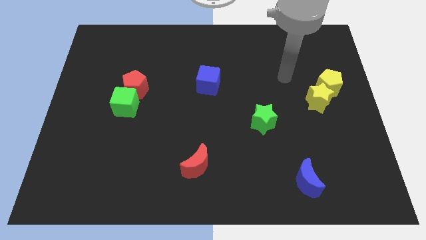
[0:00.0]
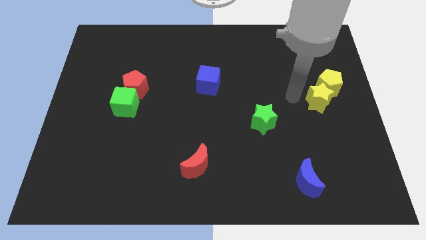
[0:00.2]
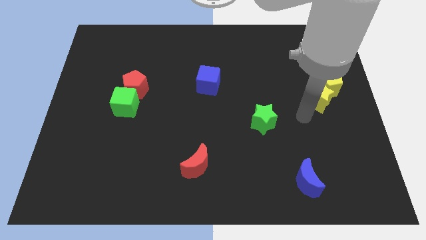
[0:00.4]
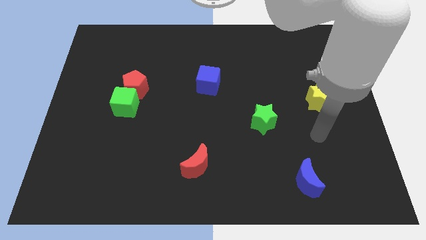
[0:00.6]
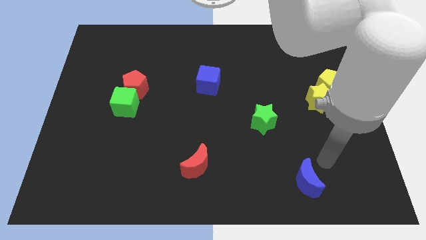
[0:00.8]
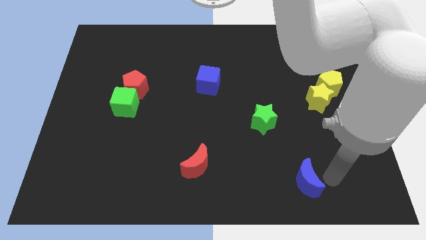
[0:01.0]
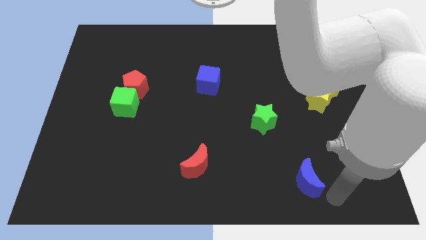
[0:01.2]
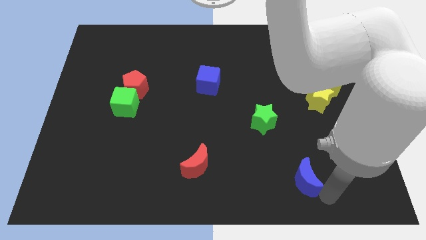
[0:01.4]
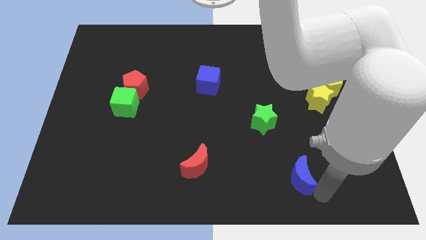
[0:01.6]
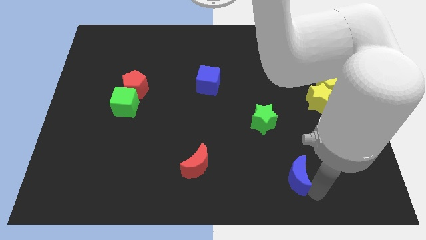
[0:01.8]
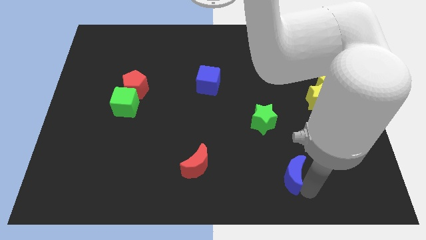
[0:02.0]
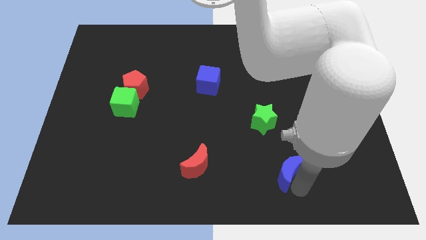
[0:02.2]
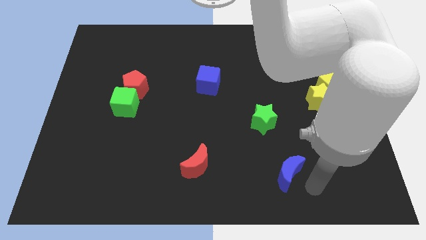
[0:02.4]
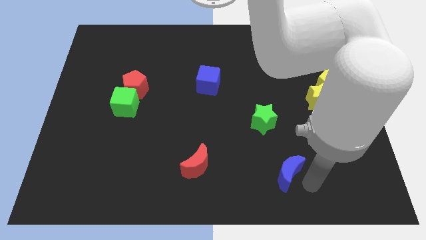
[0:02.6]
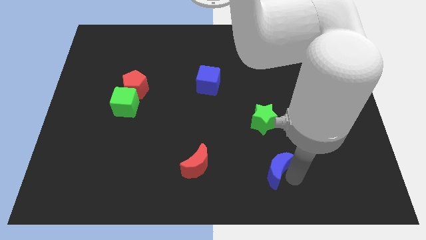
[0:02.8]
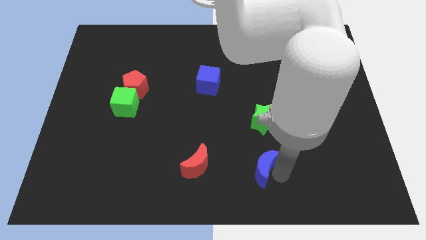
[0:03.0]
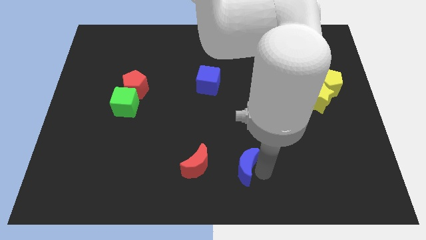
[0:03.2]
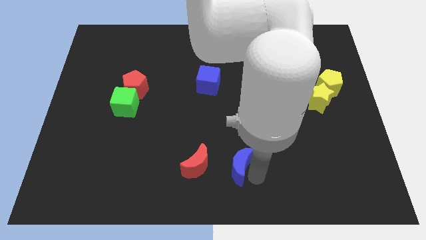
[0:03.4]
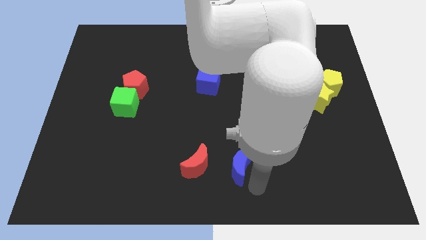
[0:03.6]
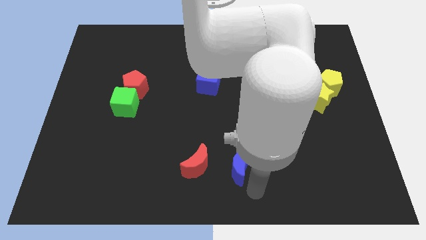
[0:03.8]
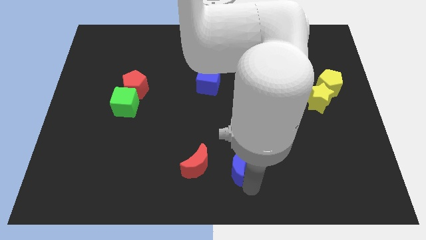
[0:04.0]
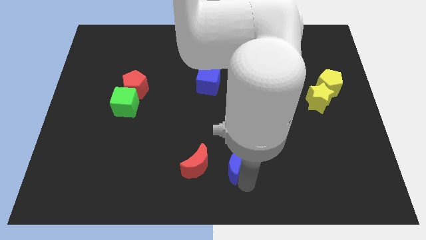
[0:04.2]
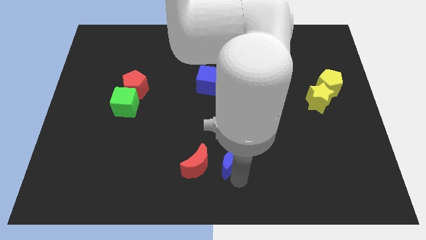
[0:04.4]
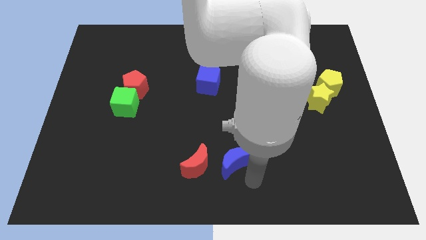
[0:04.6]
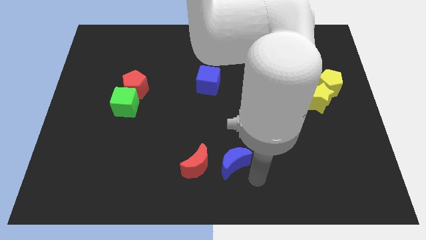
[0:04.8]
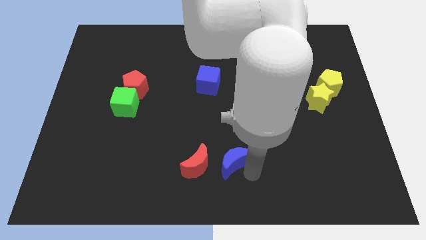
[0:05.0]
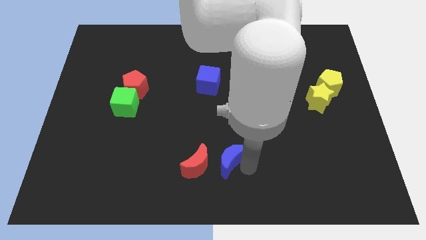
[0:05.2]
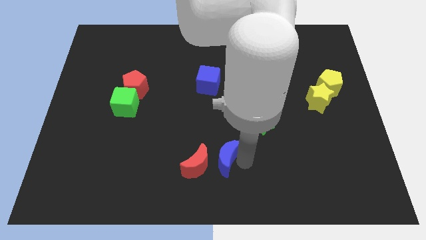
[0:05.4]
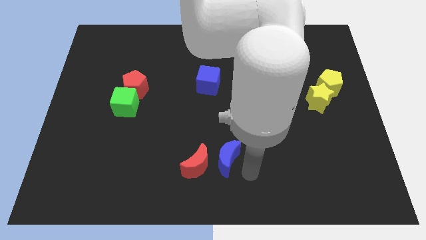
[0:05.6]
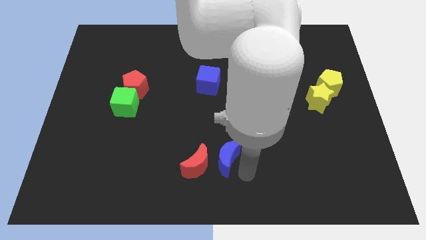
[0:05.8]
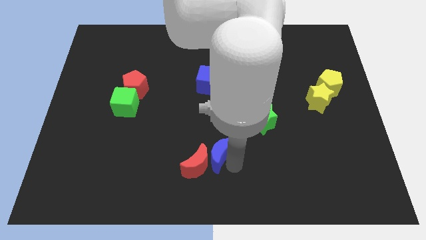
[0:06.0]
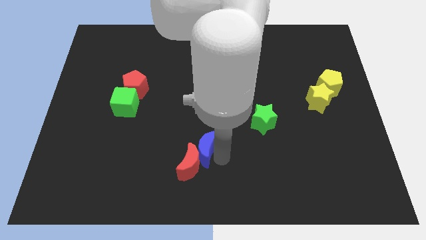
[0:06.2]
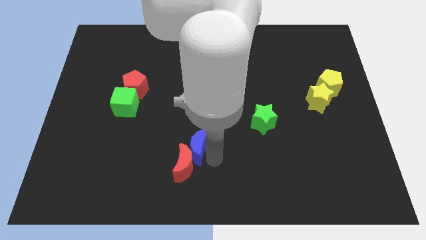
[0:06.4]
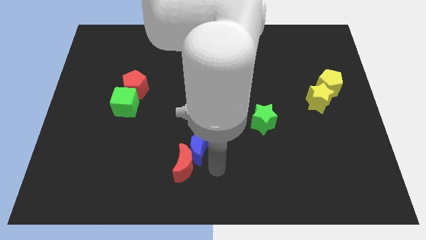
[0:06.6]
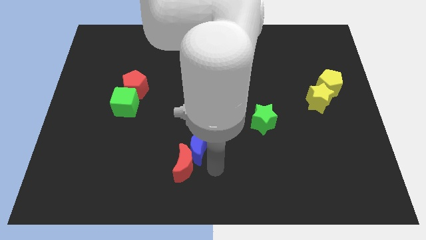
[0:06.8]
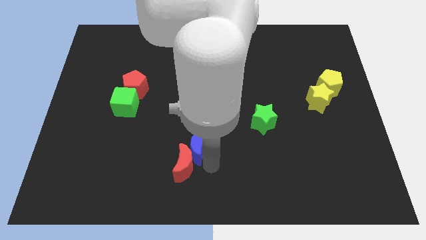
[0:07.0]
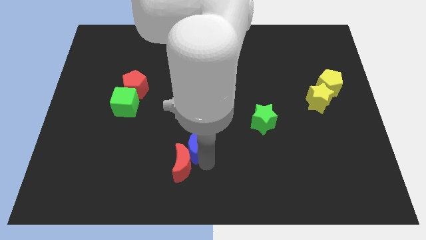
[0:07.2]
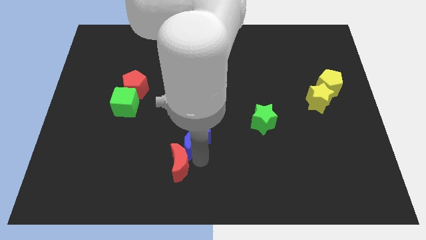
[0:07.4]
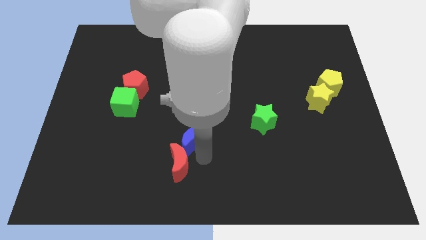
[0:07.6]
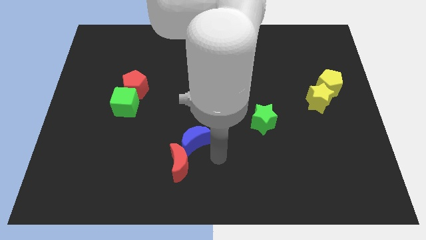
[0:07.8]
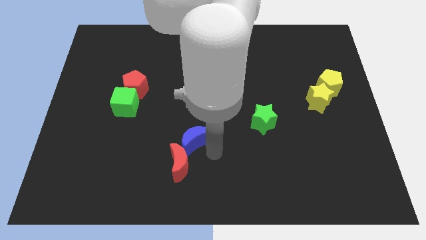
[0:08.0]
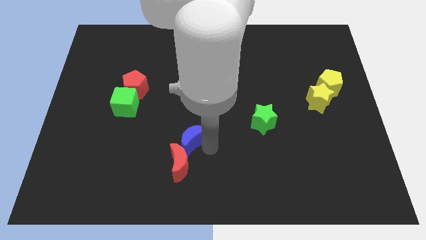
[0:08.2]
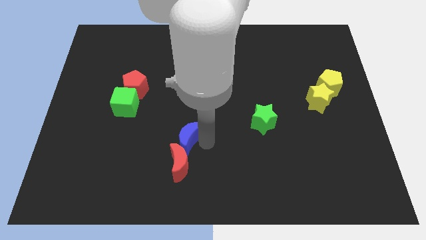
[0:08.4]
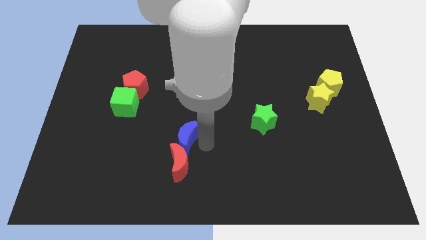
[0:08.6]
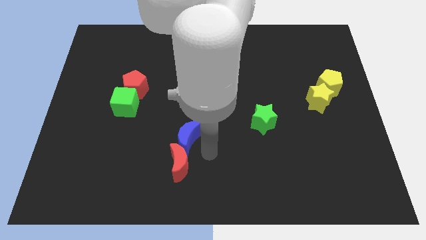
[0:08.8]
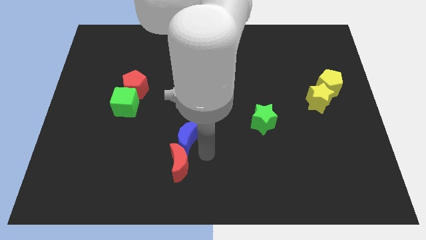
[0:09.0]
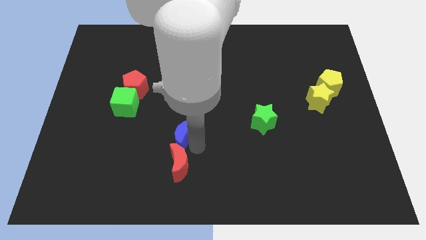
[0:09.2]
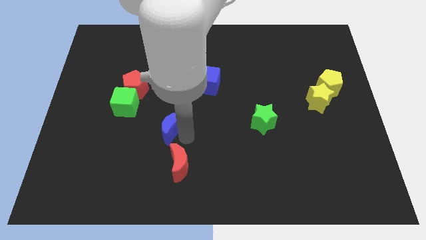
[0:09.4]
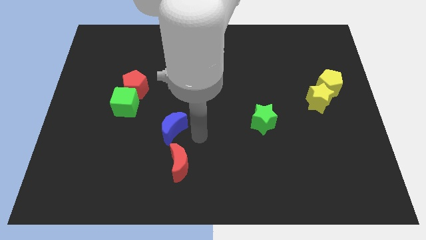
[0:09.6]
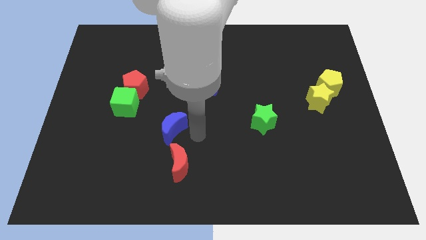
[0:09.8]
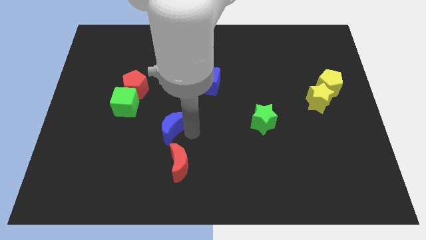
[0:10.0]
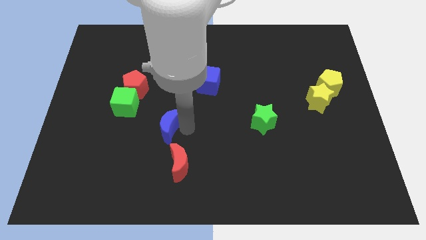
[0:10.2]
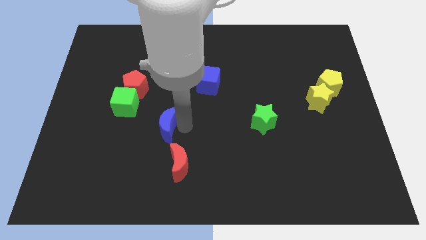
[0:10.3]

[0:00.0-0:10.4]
push the blue moon diagonally down and to the right of the green cube

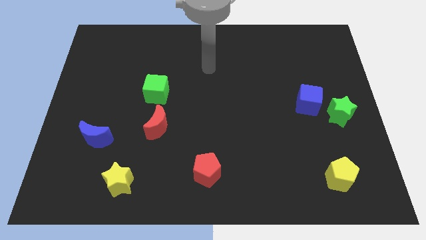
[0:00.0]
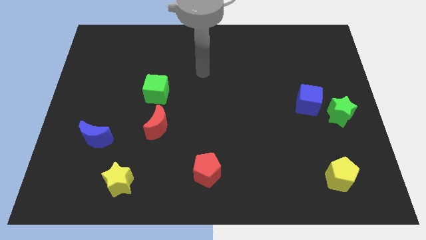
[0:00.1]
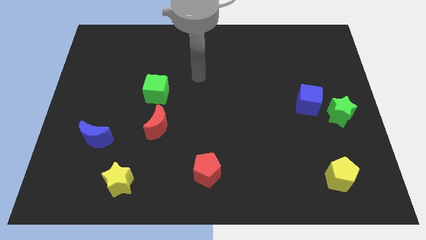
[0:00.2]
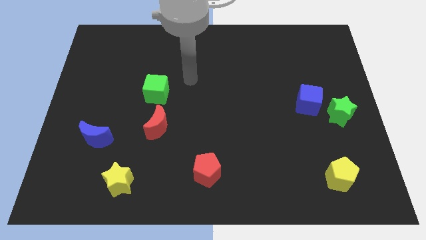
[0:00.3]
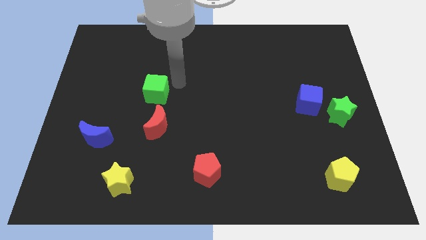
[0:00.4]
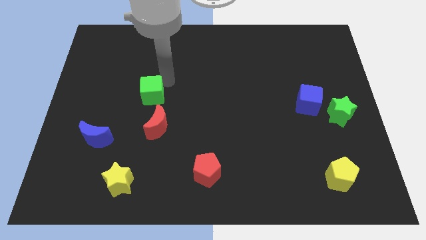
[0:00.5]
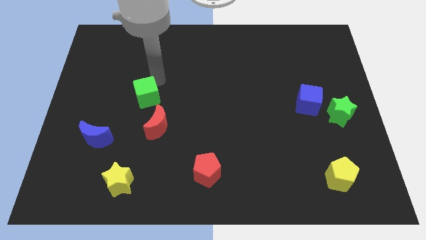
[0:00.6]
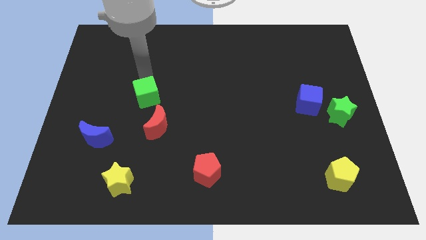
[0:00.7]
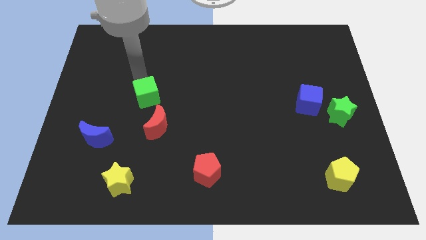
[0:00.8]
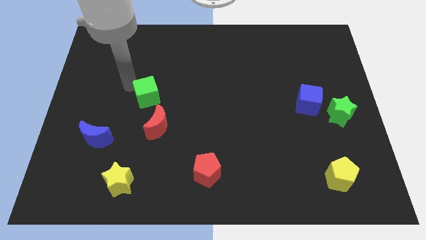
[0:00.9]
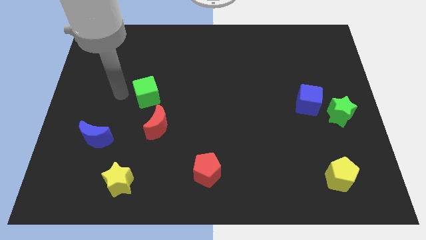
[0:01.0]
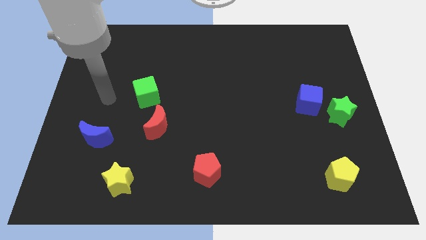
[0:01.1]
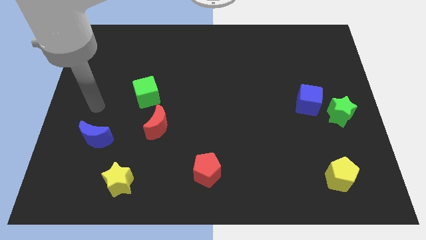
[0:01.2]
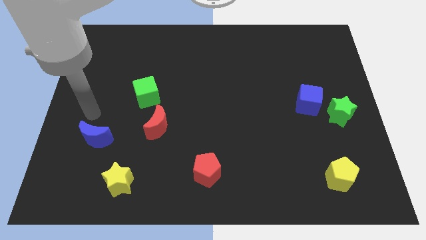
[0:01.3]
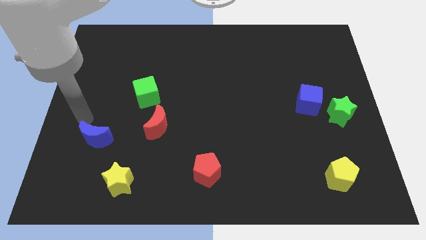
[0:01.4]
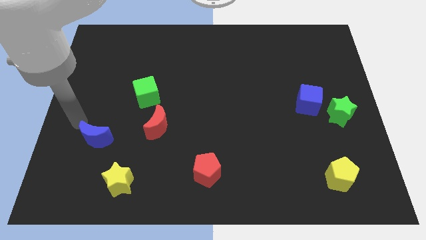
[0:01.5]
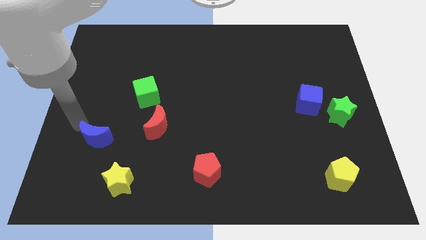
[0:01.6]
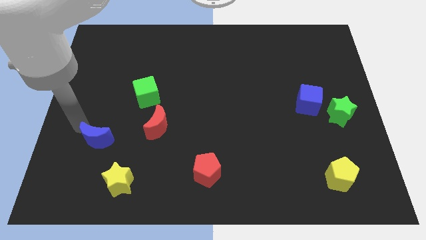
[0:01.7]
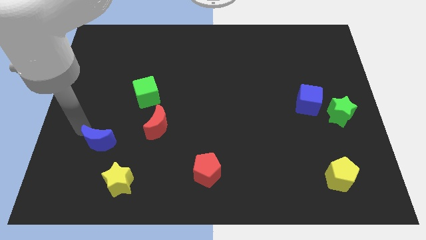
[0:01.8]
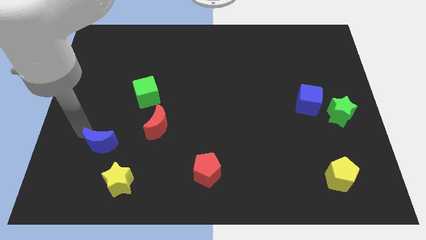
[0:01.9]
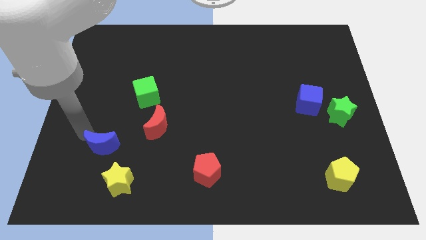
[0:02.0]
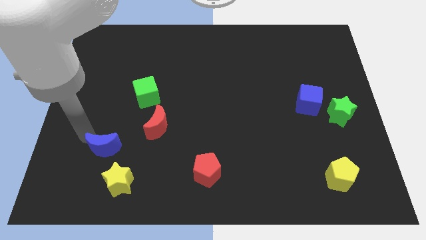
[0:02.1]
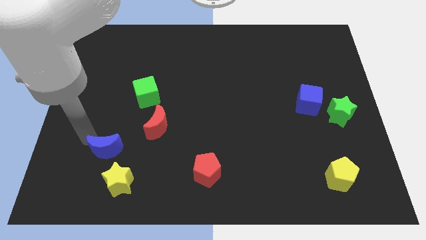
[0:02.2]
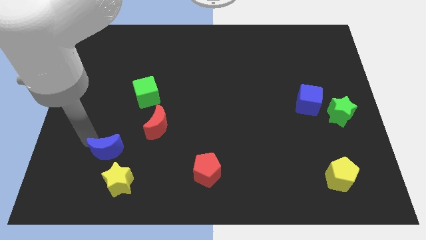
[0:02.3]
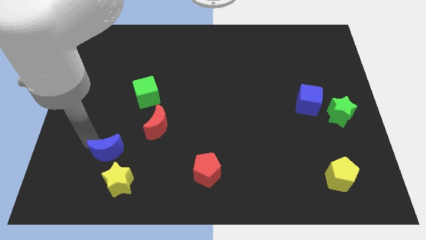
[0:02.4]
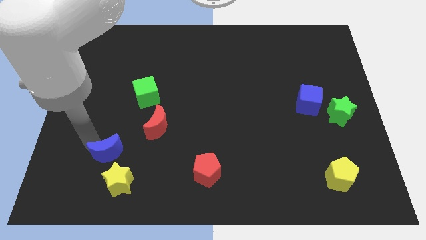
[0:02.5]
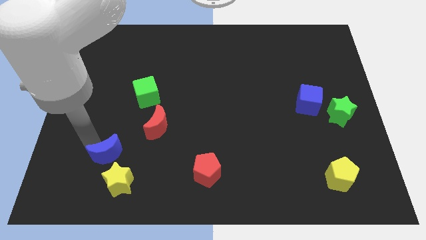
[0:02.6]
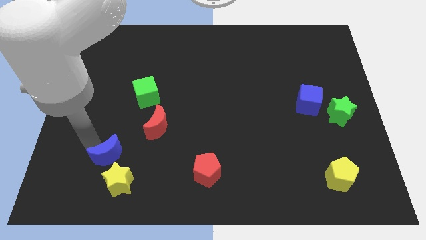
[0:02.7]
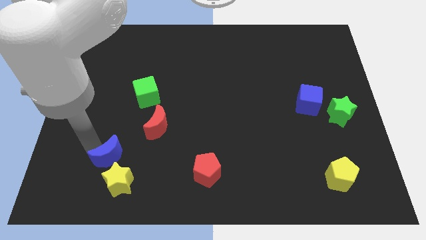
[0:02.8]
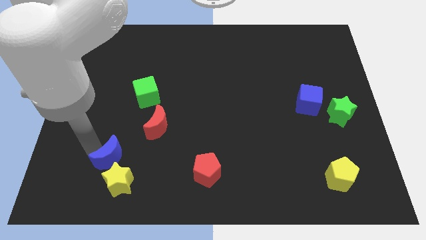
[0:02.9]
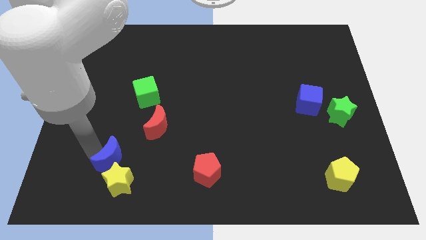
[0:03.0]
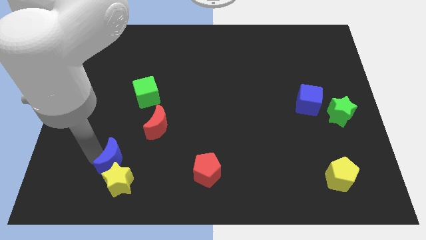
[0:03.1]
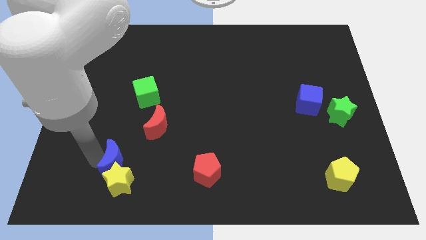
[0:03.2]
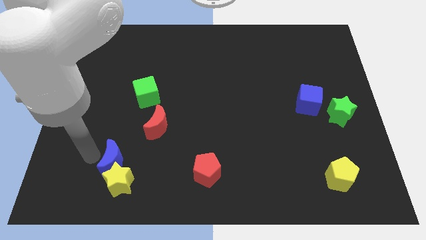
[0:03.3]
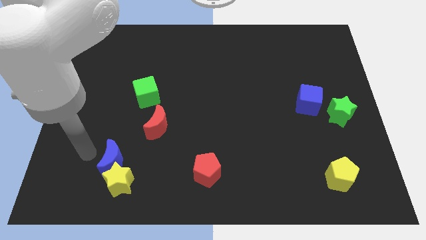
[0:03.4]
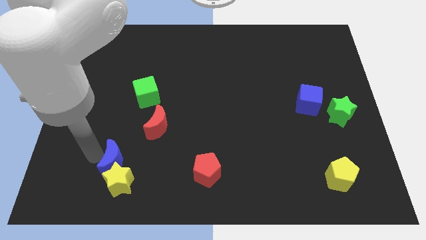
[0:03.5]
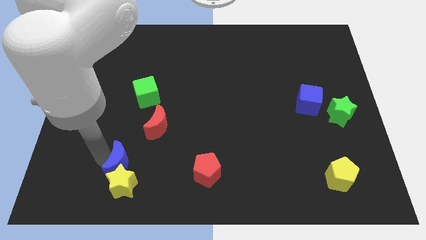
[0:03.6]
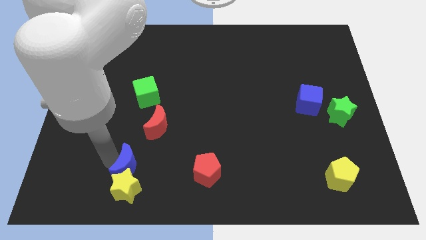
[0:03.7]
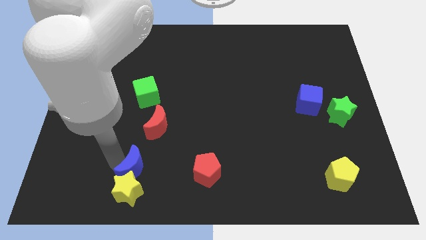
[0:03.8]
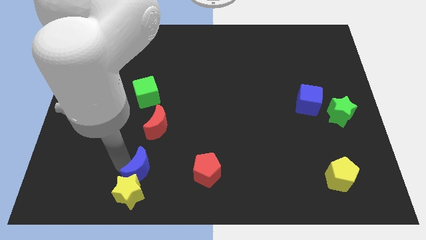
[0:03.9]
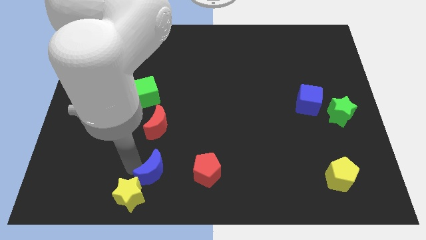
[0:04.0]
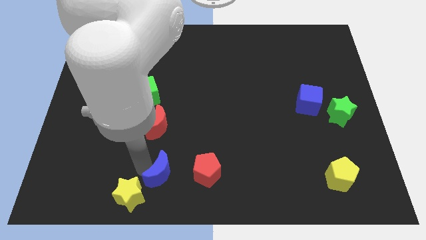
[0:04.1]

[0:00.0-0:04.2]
move the blue moon right of the yellow star
